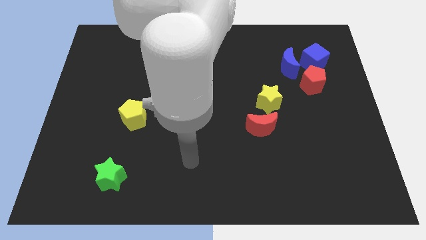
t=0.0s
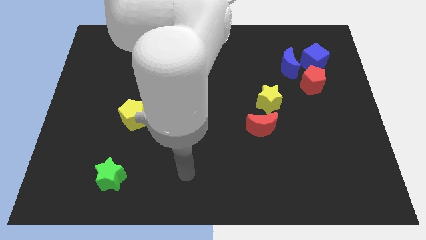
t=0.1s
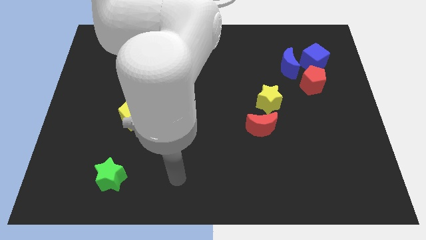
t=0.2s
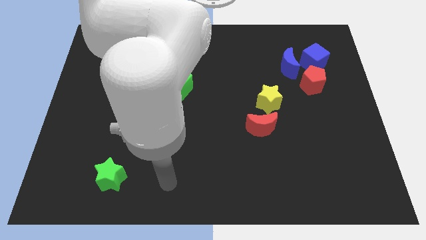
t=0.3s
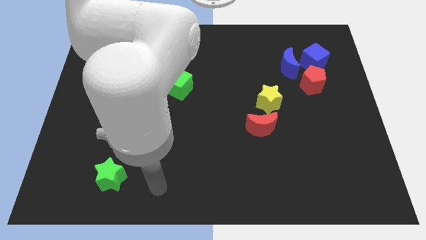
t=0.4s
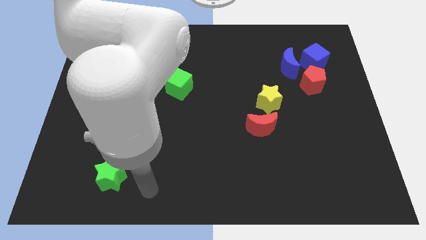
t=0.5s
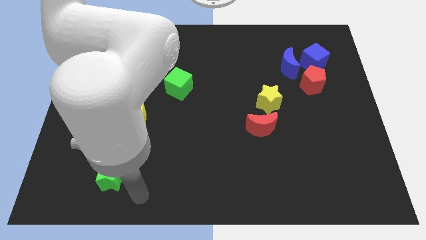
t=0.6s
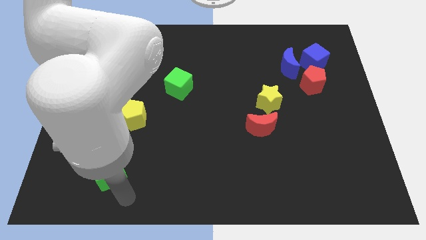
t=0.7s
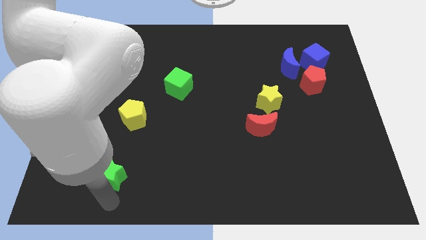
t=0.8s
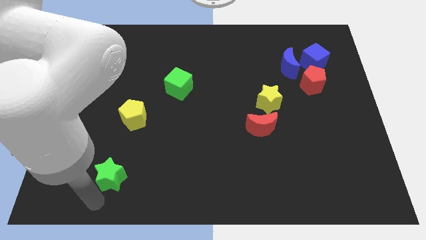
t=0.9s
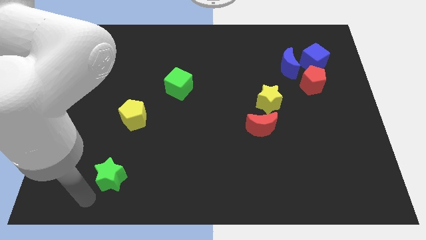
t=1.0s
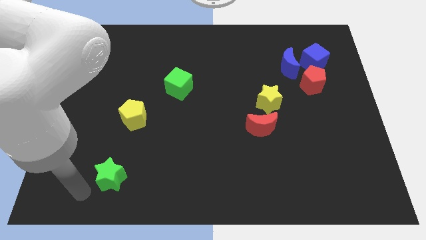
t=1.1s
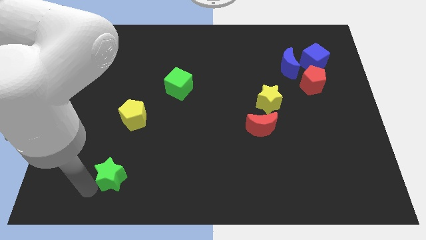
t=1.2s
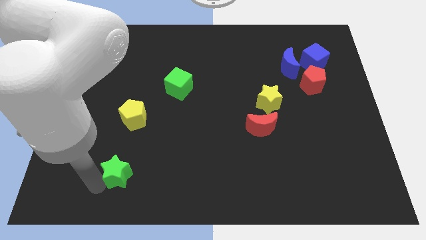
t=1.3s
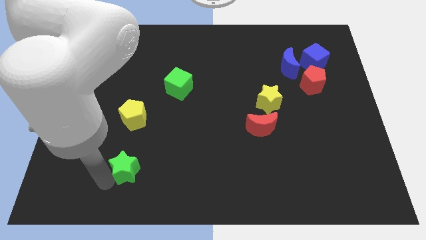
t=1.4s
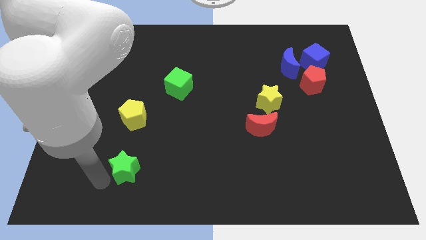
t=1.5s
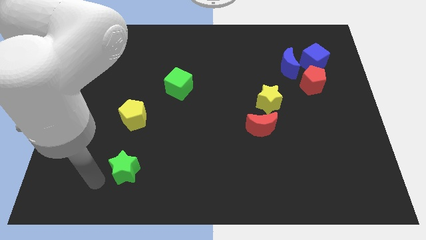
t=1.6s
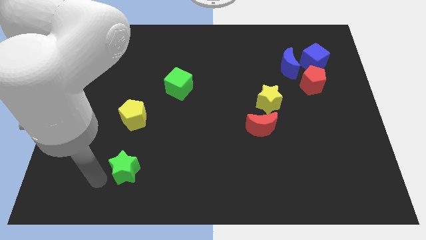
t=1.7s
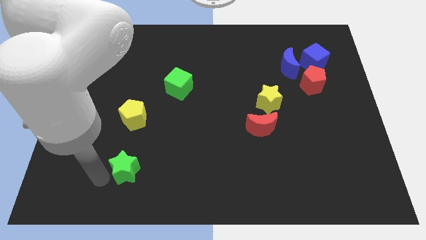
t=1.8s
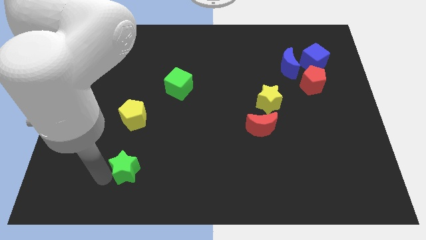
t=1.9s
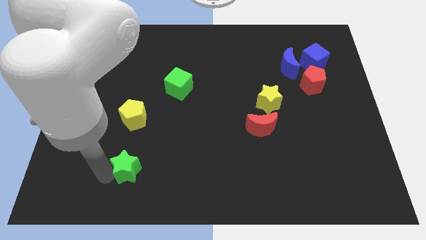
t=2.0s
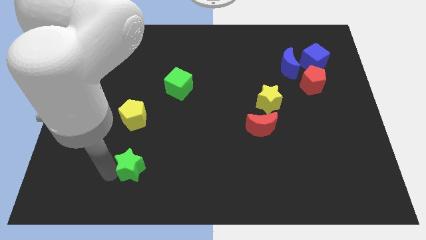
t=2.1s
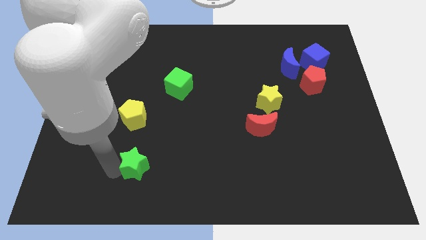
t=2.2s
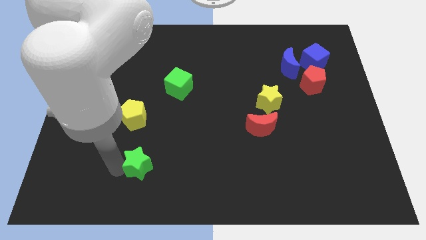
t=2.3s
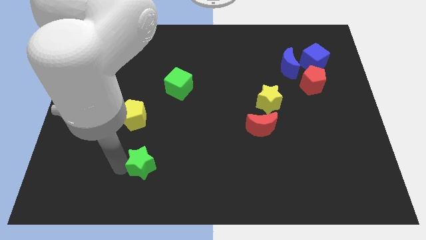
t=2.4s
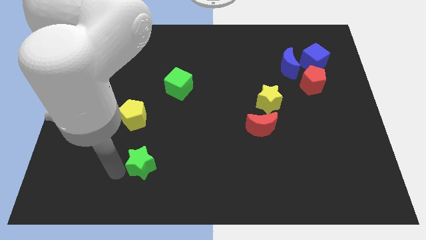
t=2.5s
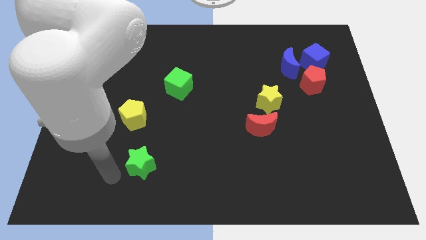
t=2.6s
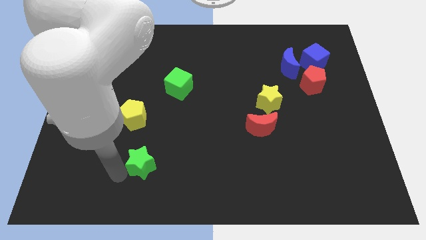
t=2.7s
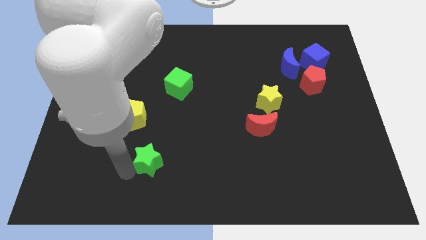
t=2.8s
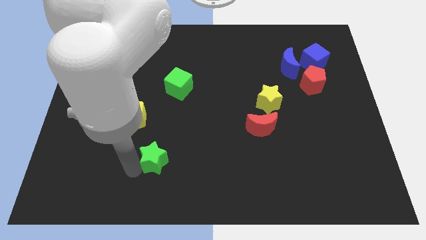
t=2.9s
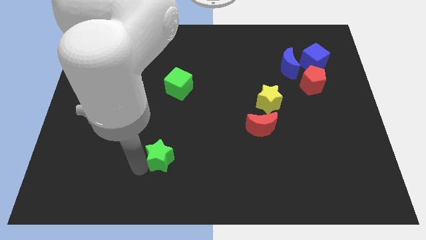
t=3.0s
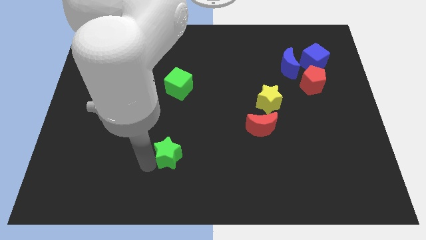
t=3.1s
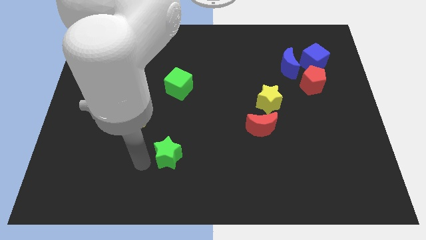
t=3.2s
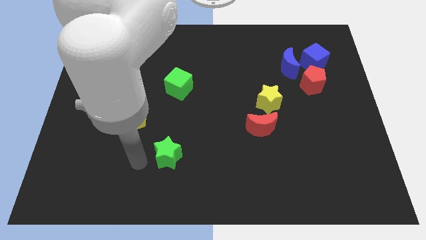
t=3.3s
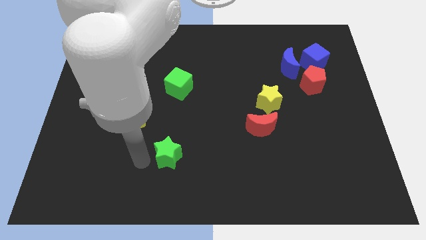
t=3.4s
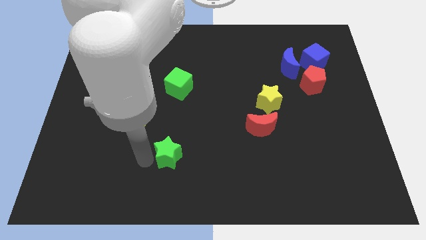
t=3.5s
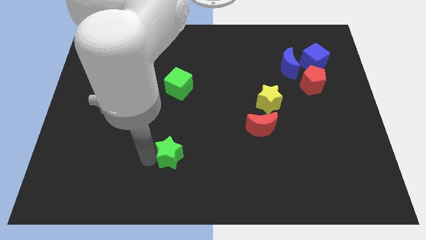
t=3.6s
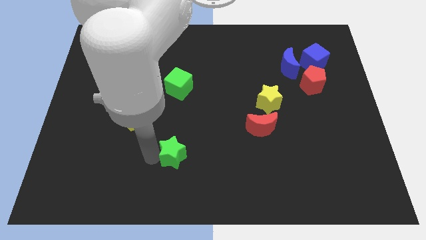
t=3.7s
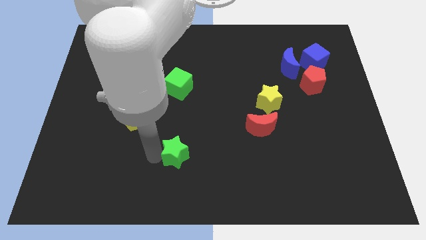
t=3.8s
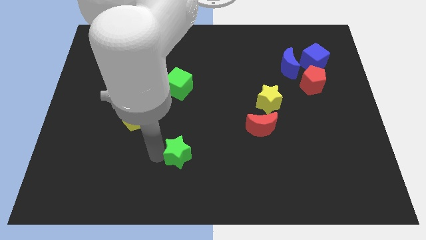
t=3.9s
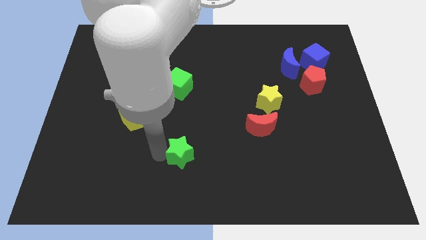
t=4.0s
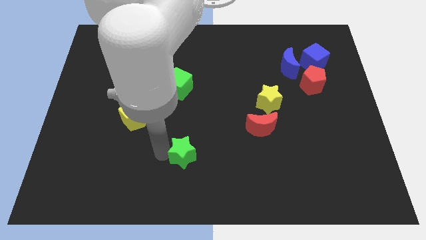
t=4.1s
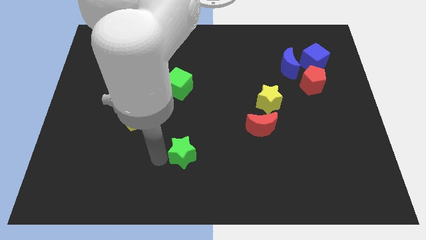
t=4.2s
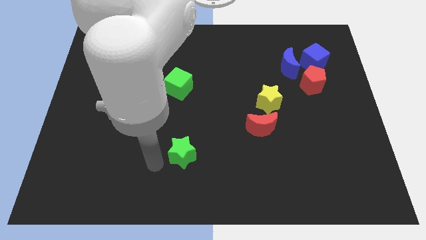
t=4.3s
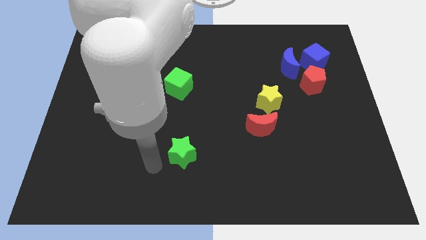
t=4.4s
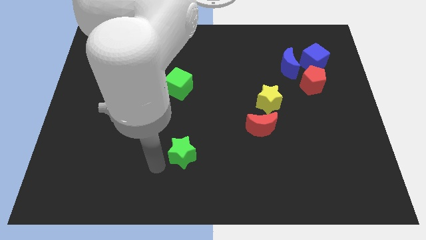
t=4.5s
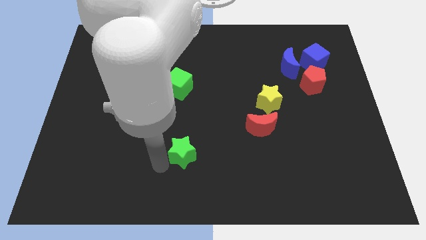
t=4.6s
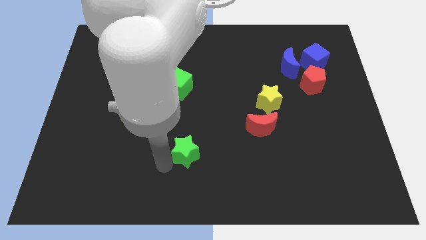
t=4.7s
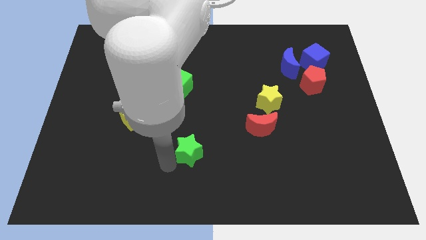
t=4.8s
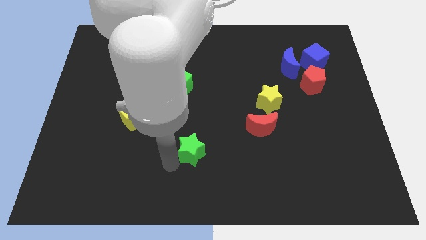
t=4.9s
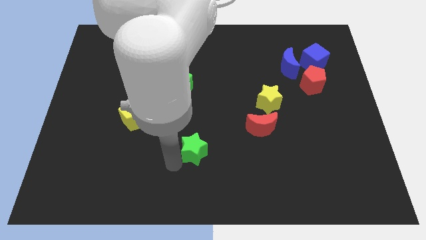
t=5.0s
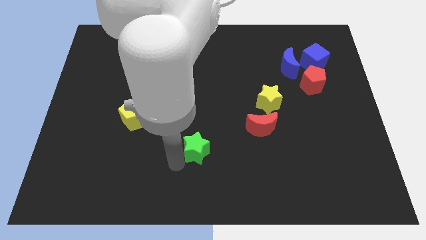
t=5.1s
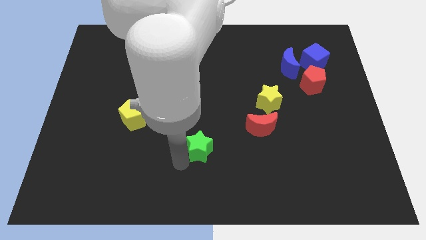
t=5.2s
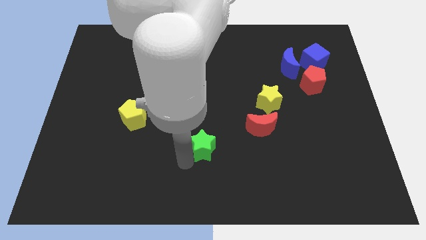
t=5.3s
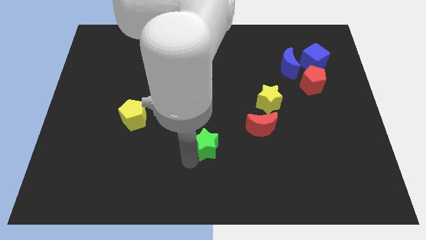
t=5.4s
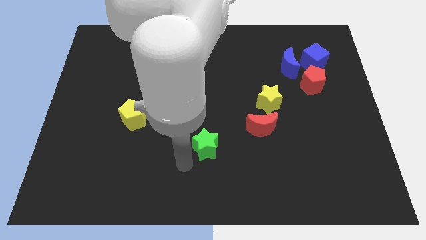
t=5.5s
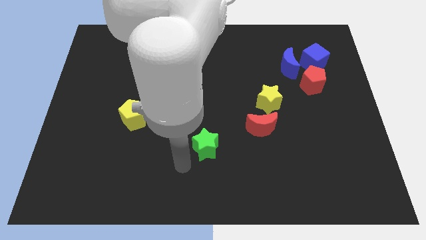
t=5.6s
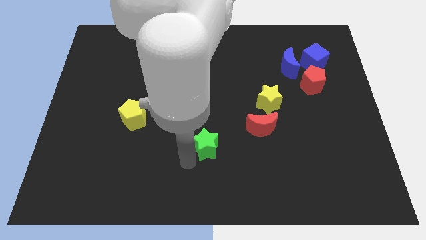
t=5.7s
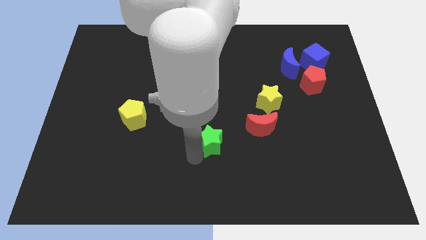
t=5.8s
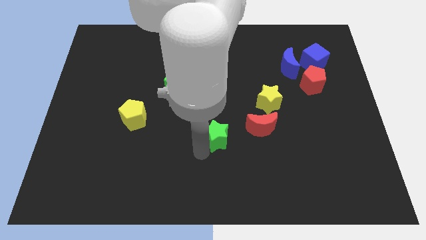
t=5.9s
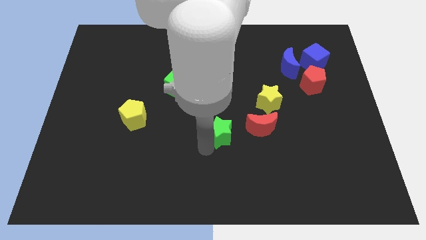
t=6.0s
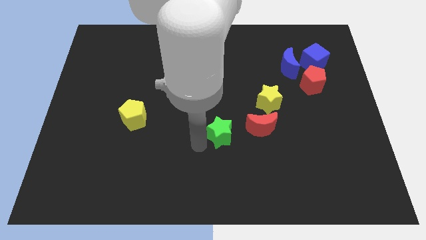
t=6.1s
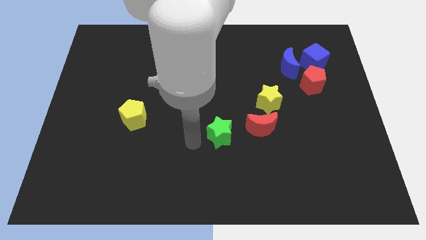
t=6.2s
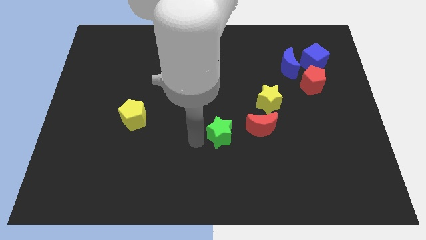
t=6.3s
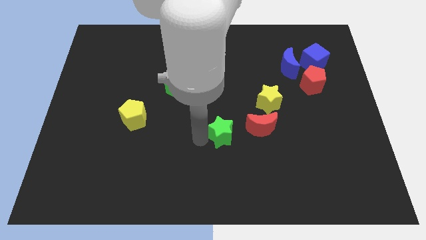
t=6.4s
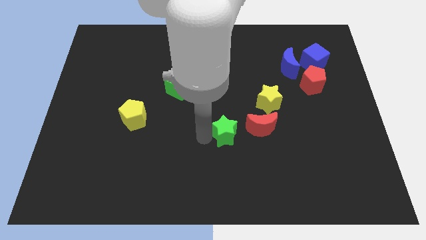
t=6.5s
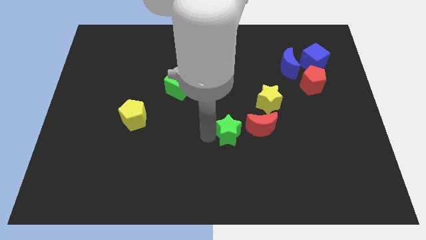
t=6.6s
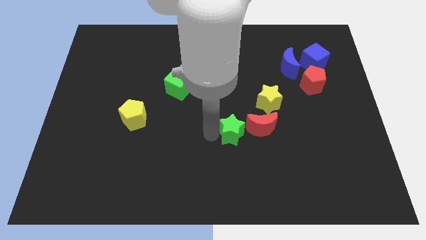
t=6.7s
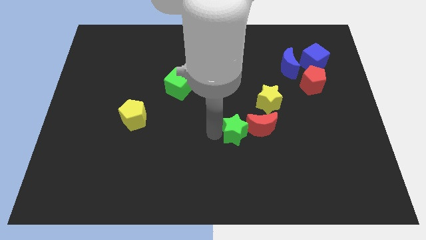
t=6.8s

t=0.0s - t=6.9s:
move the green star to the red moon
